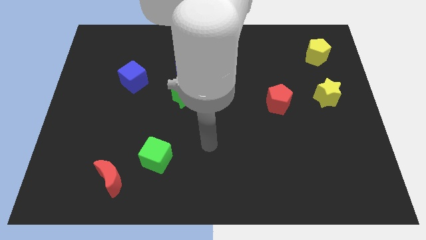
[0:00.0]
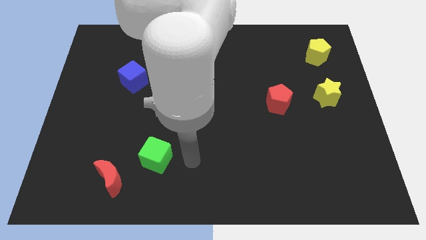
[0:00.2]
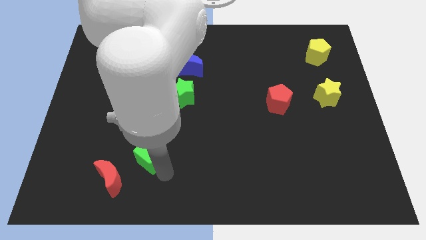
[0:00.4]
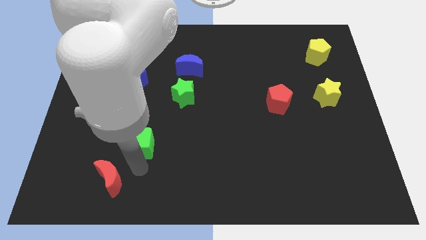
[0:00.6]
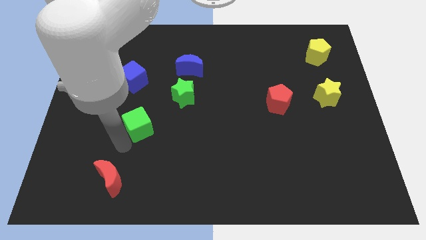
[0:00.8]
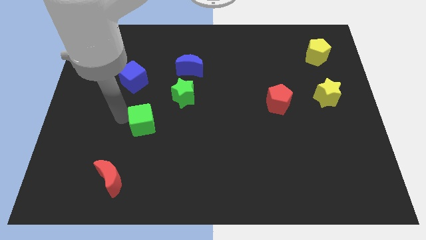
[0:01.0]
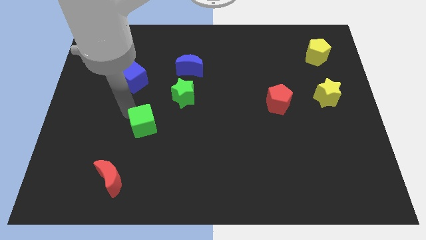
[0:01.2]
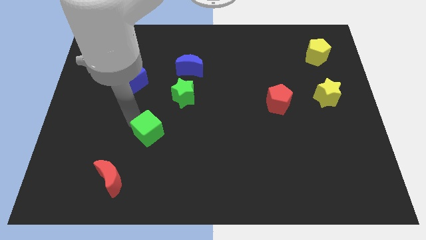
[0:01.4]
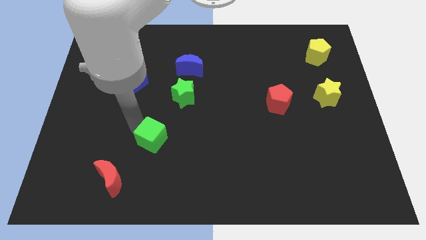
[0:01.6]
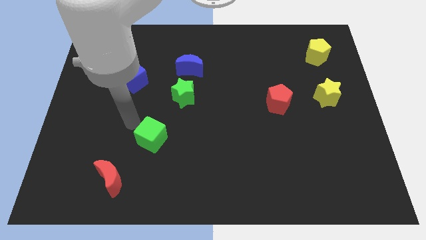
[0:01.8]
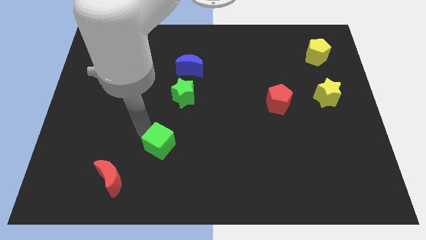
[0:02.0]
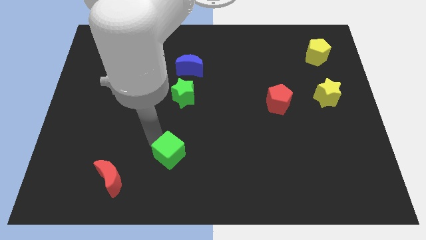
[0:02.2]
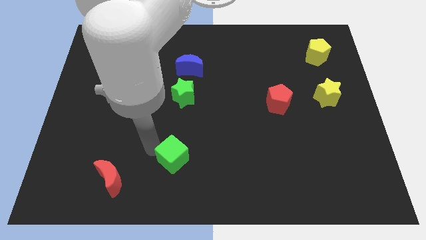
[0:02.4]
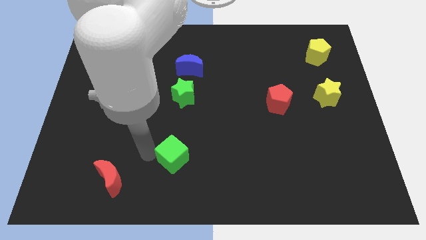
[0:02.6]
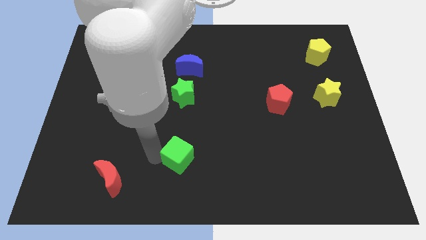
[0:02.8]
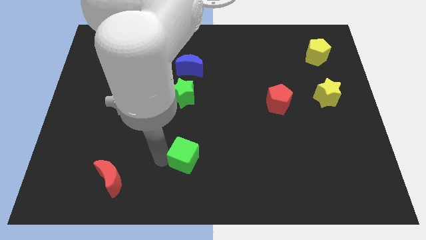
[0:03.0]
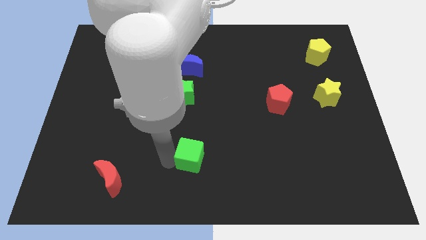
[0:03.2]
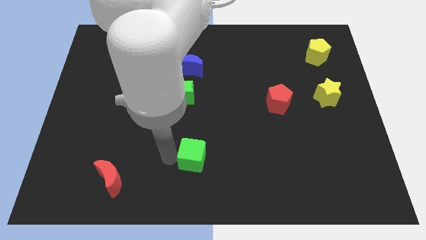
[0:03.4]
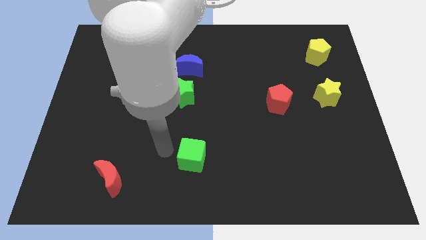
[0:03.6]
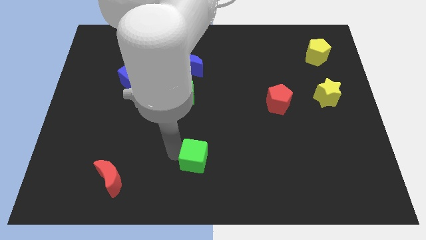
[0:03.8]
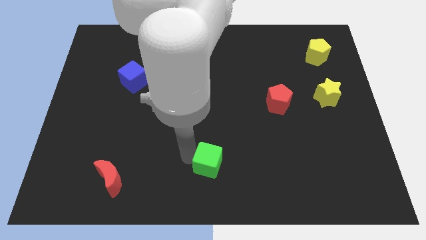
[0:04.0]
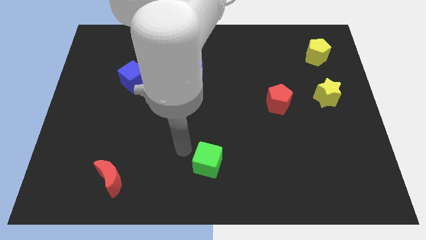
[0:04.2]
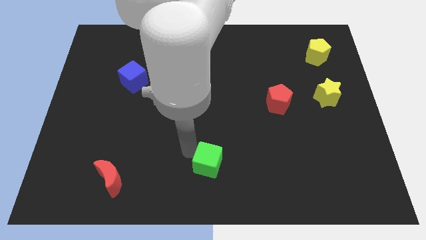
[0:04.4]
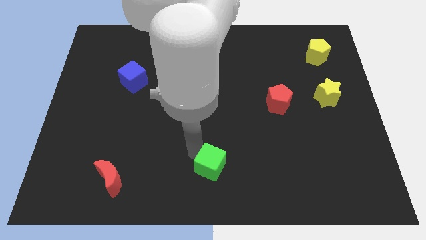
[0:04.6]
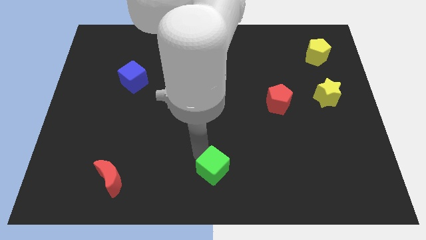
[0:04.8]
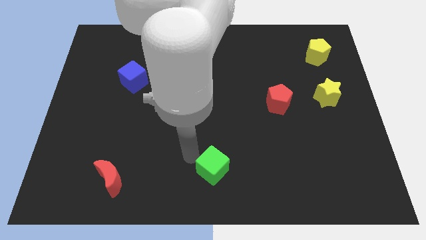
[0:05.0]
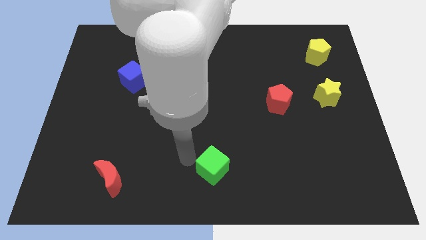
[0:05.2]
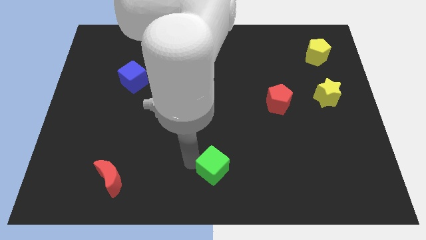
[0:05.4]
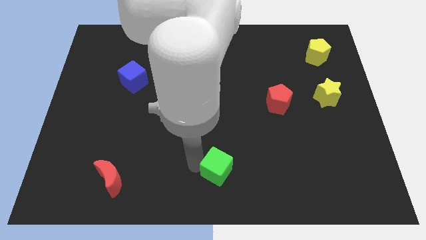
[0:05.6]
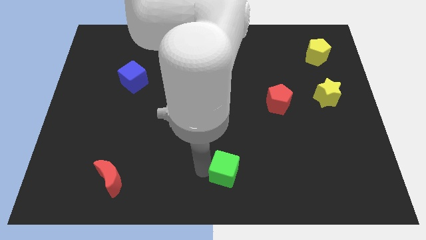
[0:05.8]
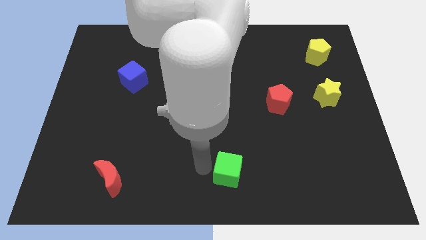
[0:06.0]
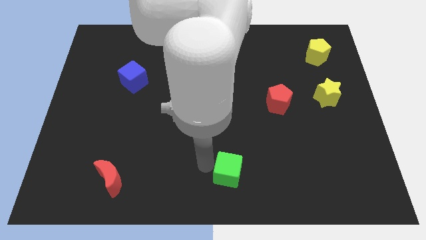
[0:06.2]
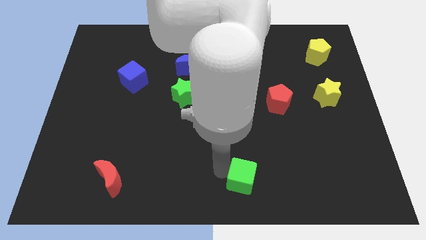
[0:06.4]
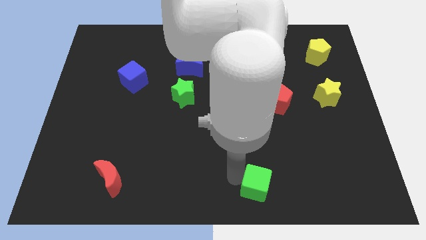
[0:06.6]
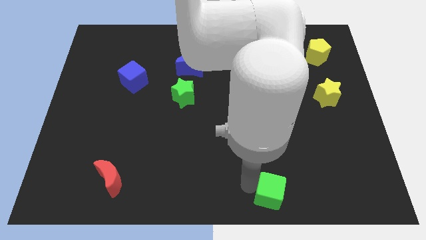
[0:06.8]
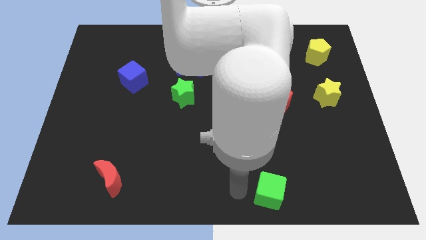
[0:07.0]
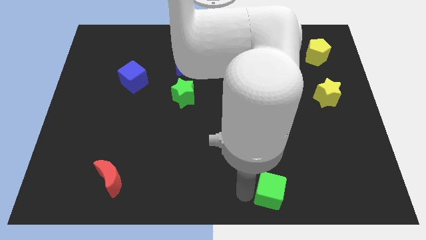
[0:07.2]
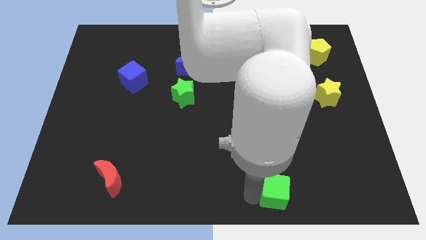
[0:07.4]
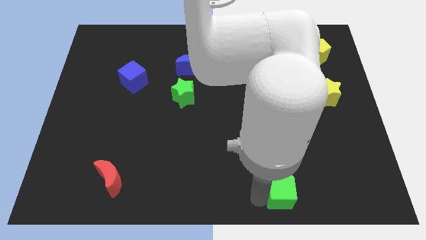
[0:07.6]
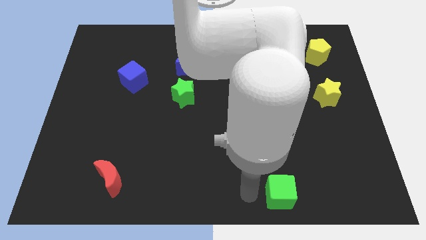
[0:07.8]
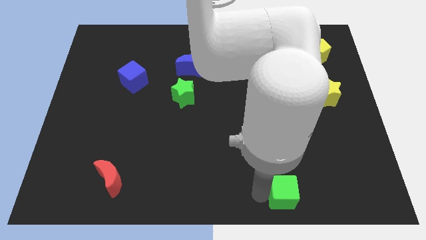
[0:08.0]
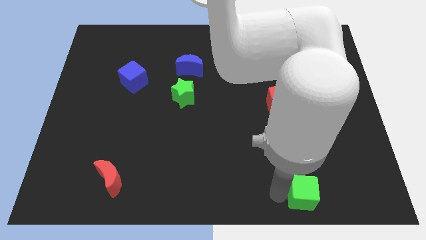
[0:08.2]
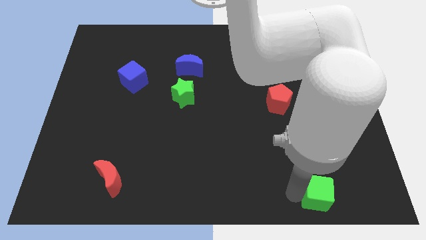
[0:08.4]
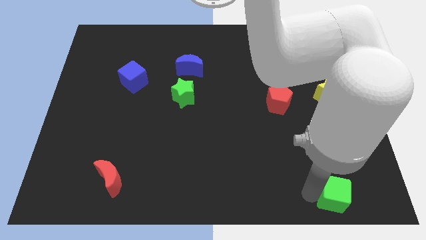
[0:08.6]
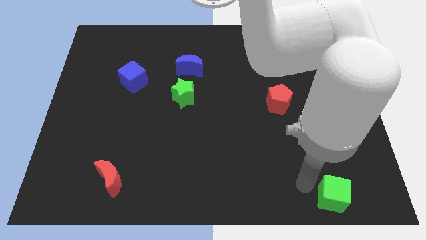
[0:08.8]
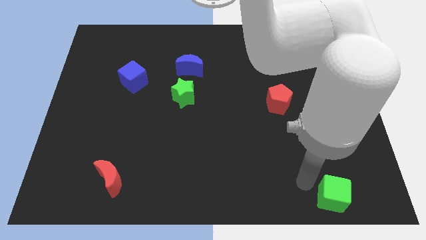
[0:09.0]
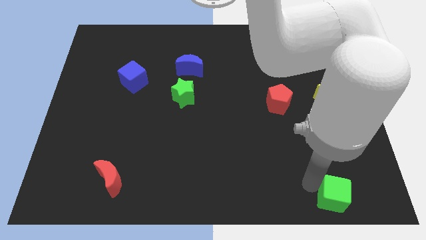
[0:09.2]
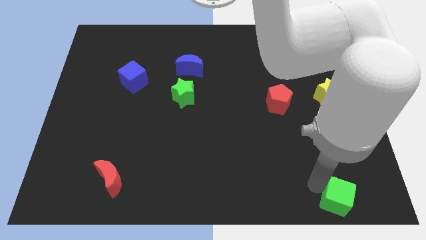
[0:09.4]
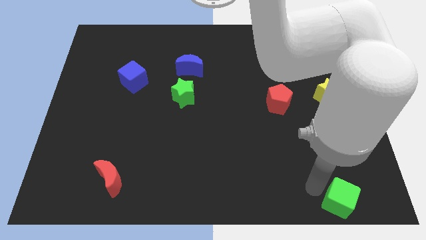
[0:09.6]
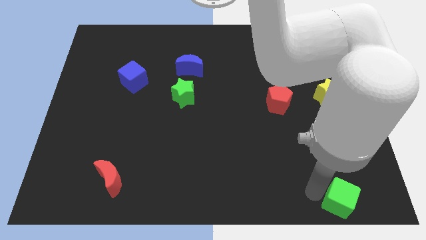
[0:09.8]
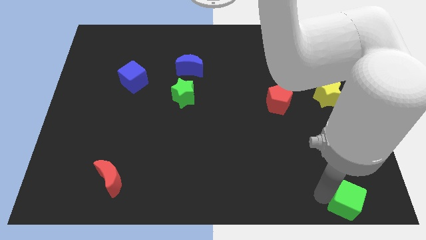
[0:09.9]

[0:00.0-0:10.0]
put the green cube to the lower right corner

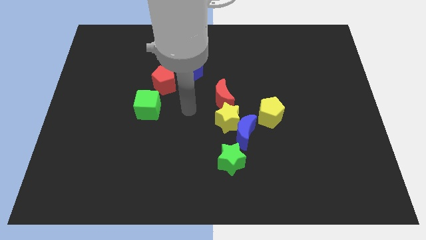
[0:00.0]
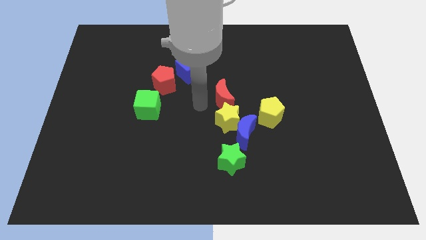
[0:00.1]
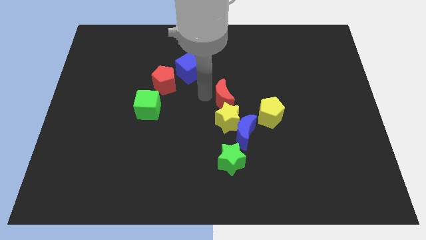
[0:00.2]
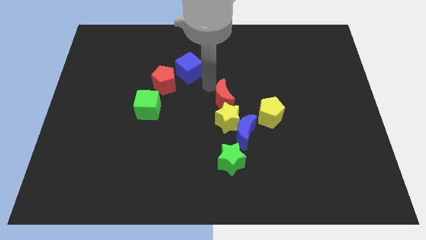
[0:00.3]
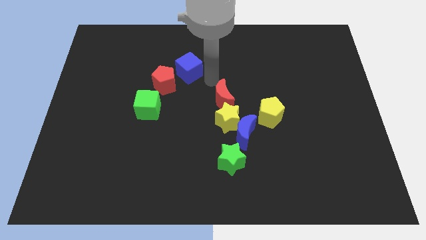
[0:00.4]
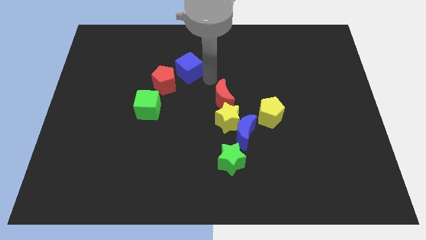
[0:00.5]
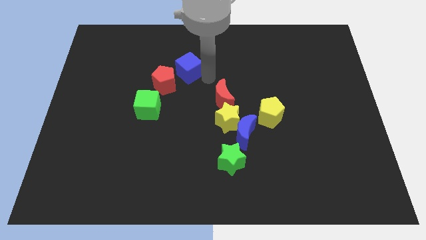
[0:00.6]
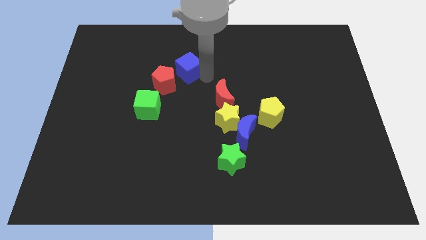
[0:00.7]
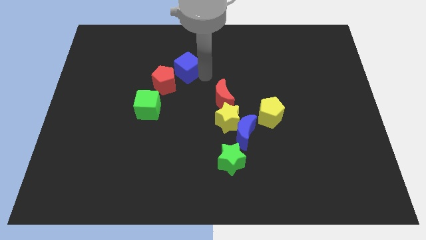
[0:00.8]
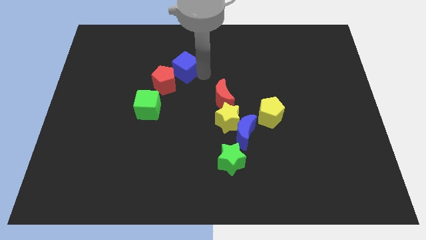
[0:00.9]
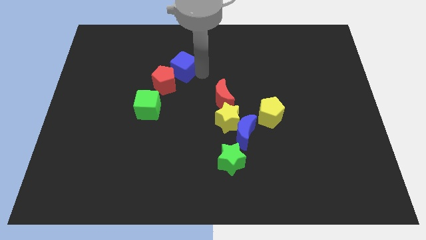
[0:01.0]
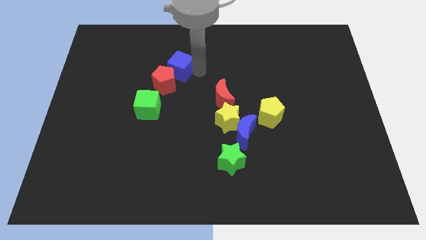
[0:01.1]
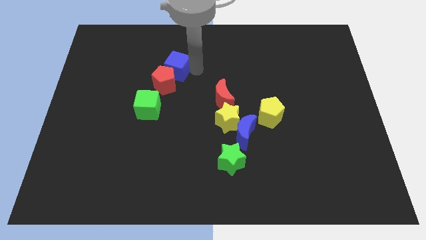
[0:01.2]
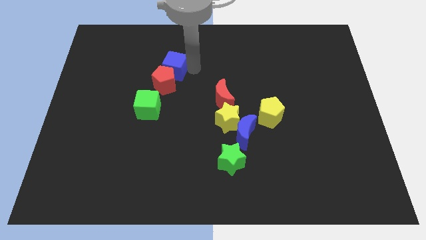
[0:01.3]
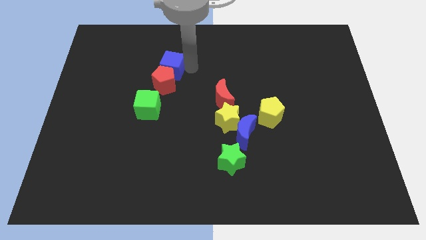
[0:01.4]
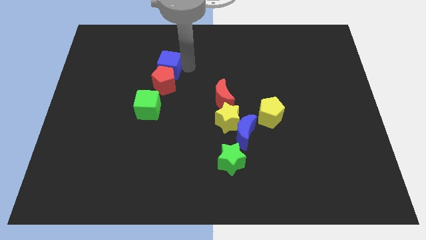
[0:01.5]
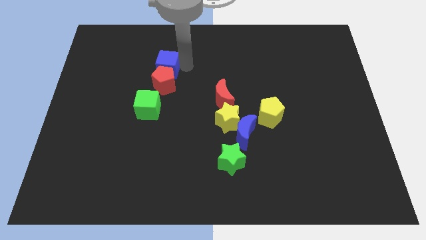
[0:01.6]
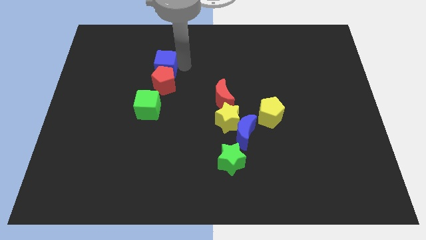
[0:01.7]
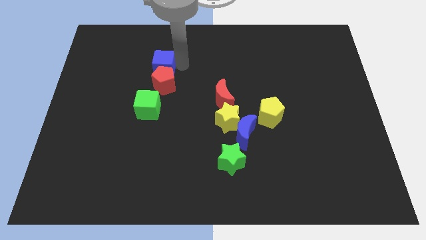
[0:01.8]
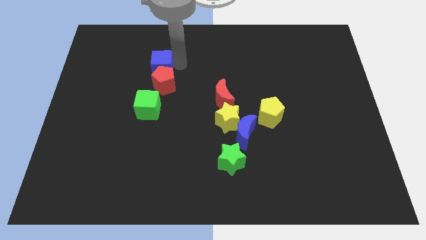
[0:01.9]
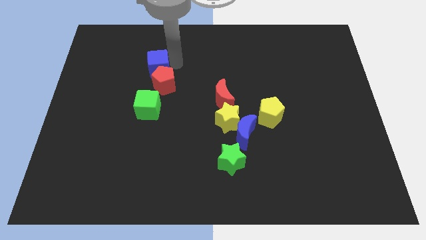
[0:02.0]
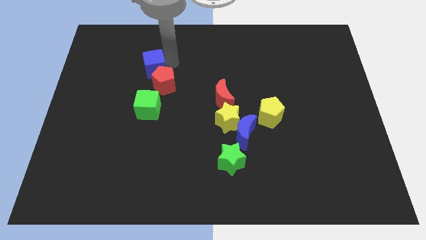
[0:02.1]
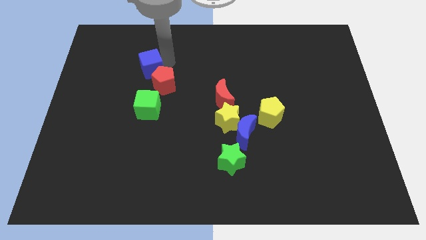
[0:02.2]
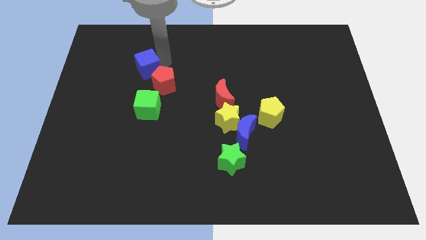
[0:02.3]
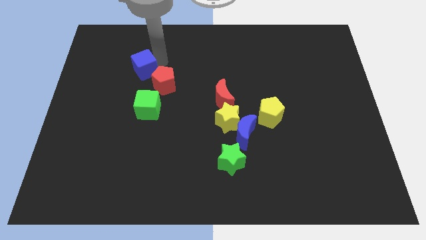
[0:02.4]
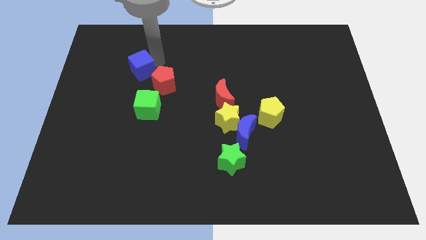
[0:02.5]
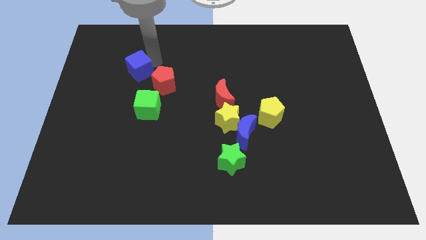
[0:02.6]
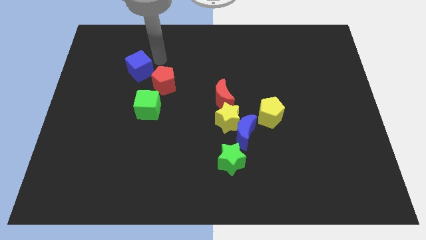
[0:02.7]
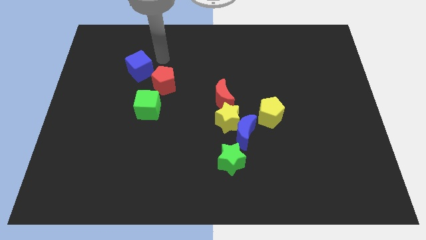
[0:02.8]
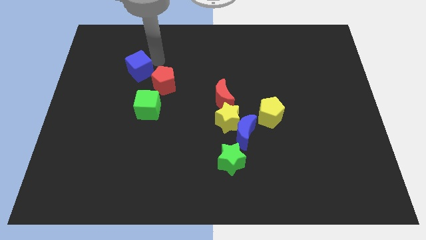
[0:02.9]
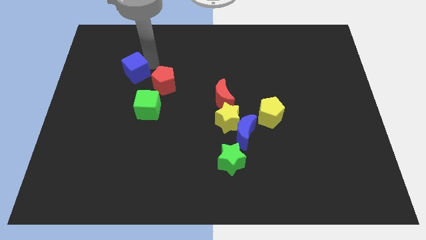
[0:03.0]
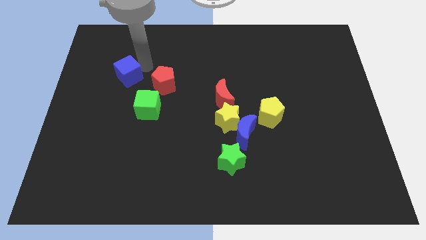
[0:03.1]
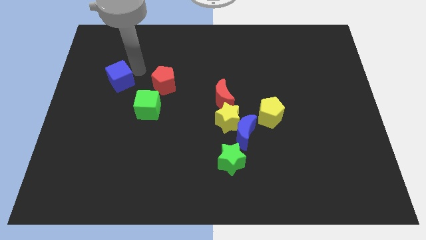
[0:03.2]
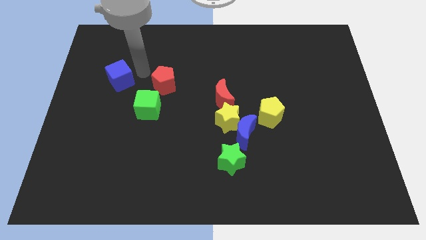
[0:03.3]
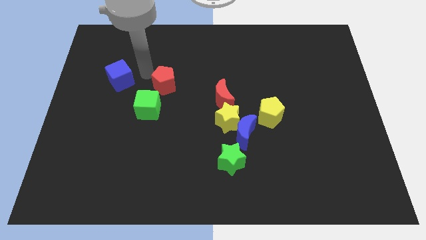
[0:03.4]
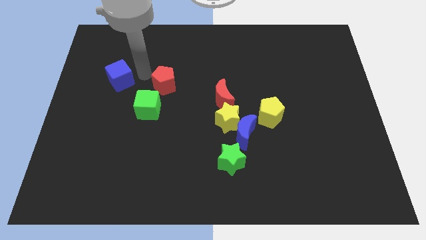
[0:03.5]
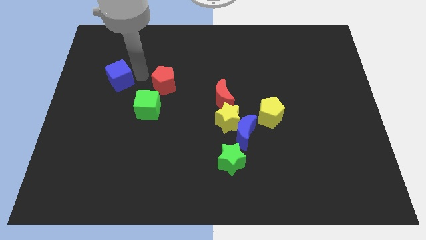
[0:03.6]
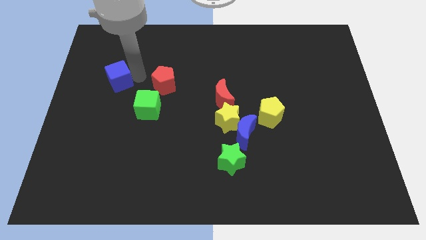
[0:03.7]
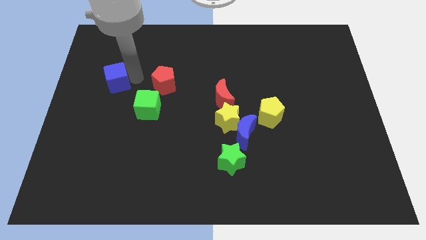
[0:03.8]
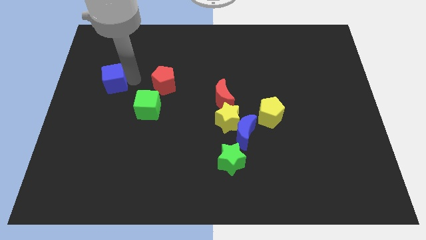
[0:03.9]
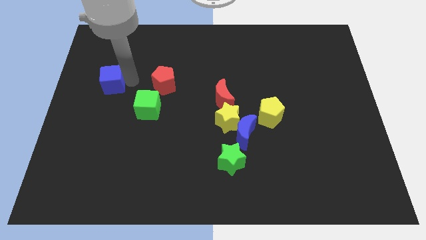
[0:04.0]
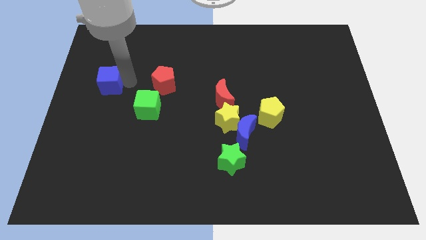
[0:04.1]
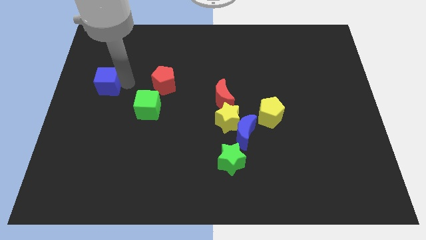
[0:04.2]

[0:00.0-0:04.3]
push the blue cube to the center left
